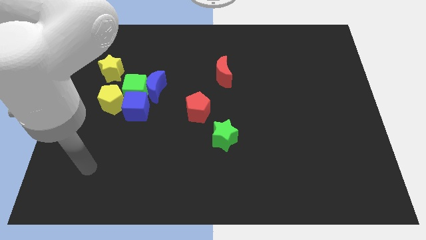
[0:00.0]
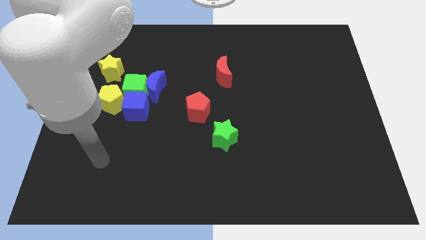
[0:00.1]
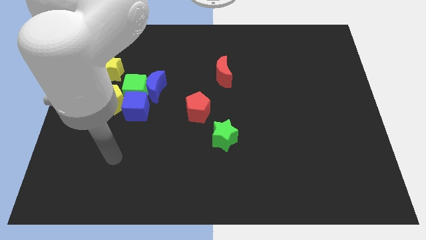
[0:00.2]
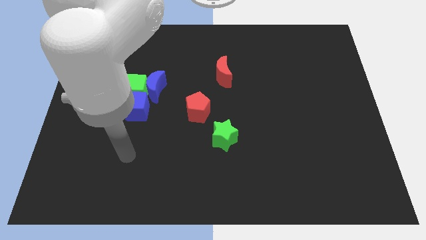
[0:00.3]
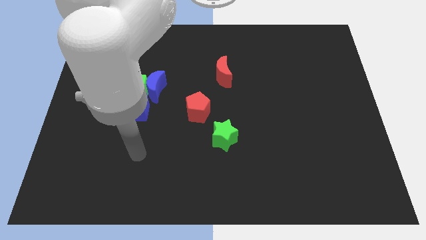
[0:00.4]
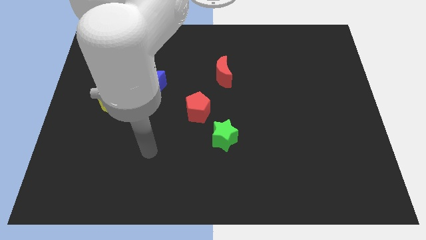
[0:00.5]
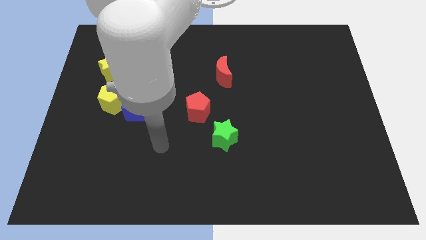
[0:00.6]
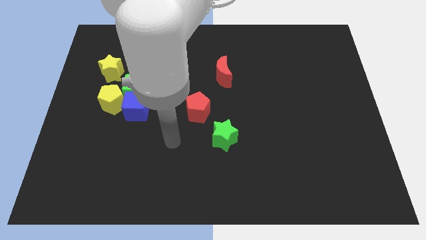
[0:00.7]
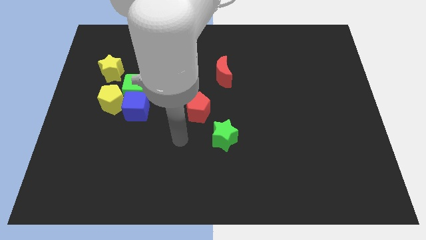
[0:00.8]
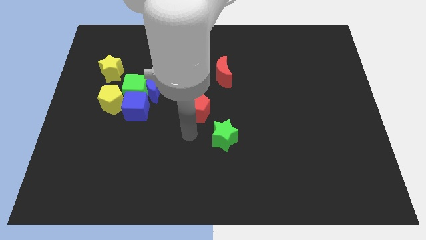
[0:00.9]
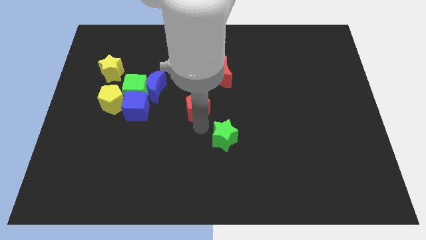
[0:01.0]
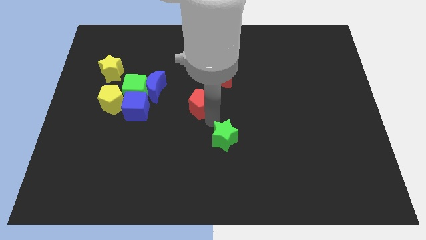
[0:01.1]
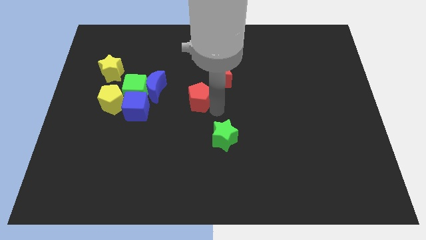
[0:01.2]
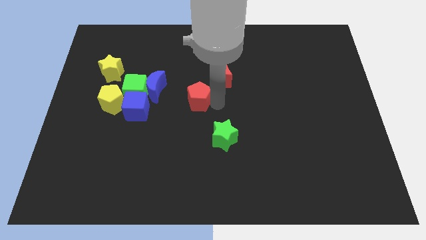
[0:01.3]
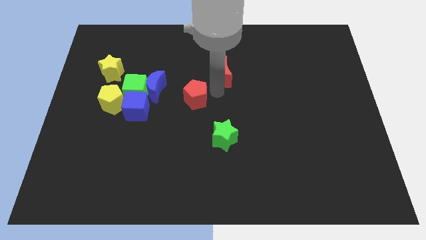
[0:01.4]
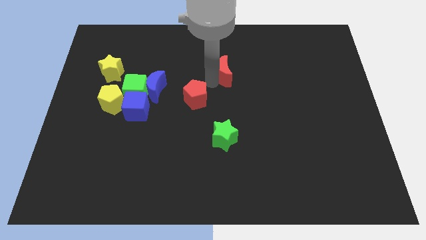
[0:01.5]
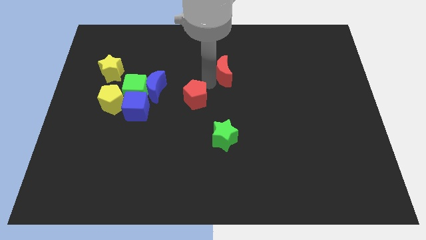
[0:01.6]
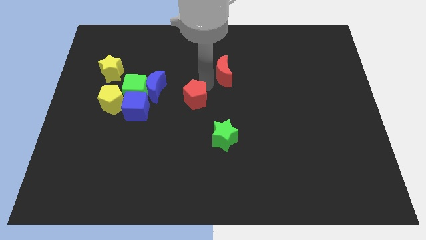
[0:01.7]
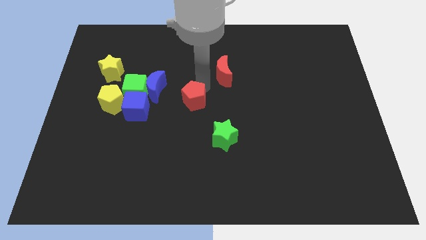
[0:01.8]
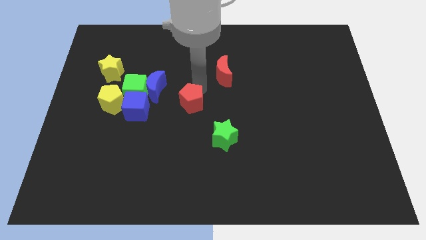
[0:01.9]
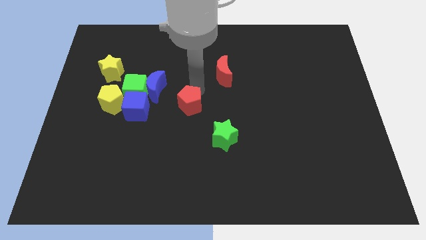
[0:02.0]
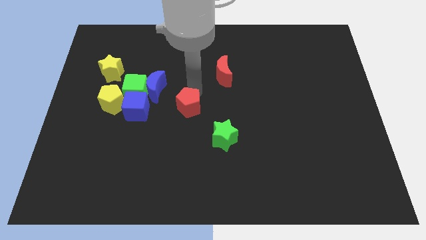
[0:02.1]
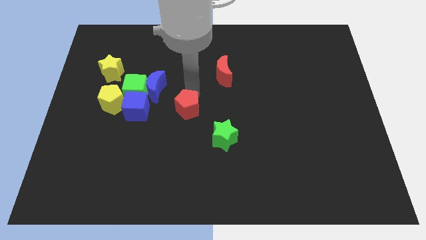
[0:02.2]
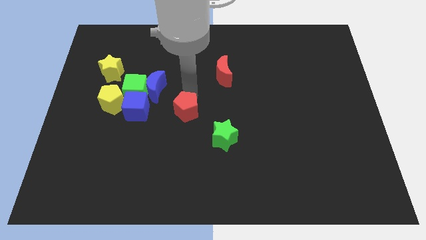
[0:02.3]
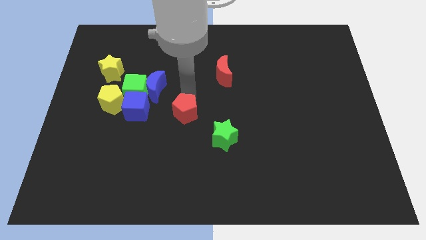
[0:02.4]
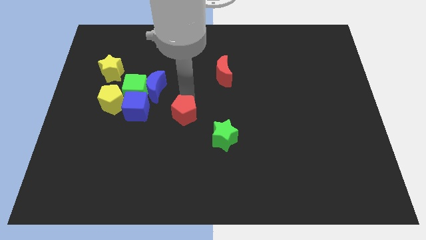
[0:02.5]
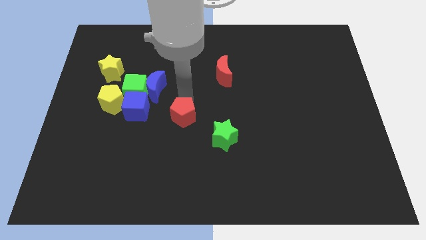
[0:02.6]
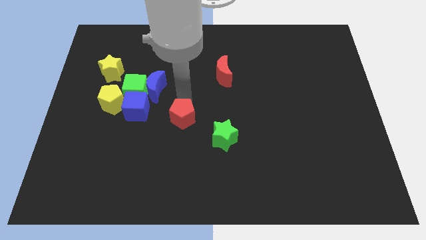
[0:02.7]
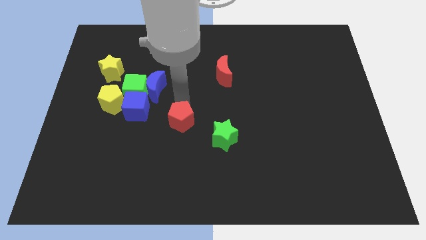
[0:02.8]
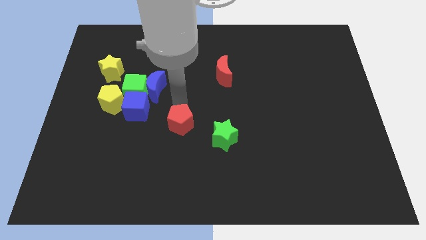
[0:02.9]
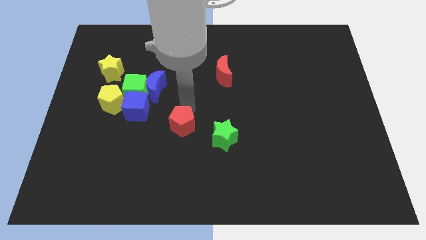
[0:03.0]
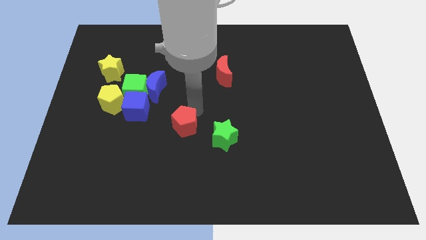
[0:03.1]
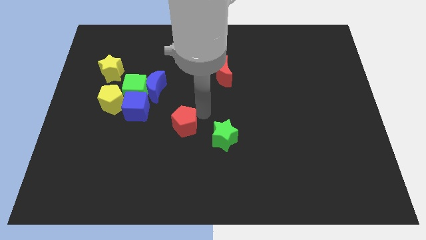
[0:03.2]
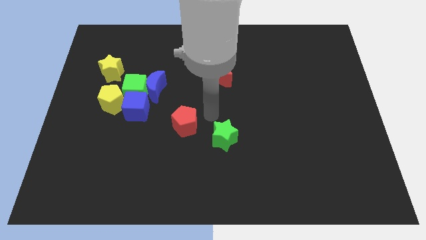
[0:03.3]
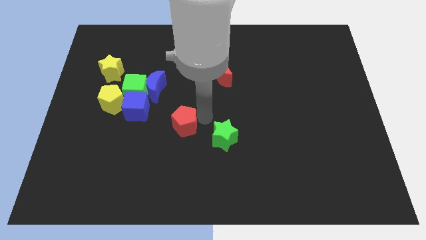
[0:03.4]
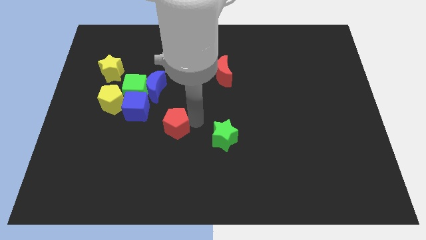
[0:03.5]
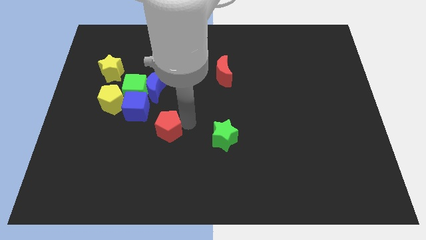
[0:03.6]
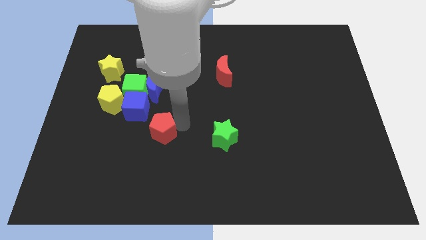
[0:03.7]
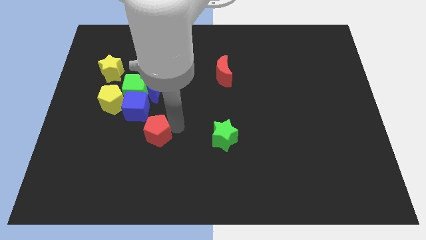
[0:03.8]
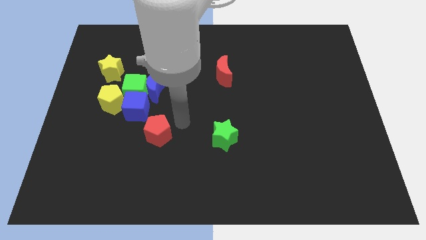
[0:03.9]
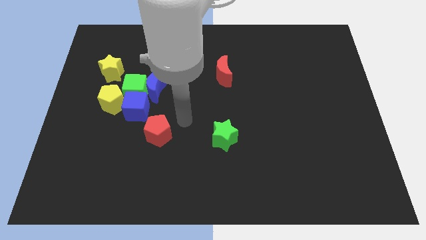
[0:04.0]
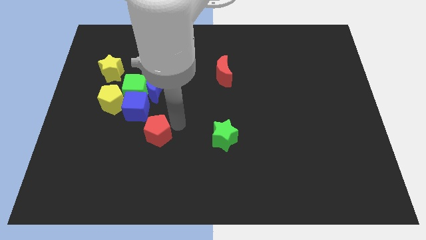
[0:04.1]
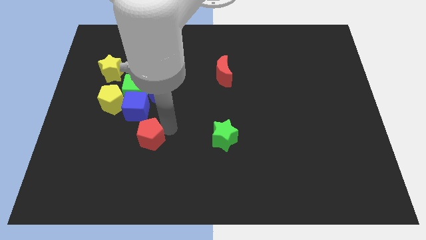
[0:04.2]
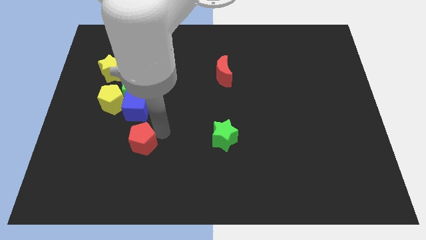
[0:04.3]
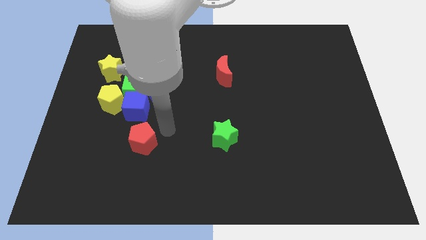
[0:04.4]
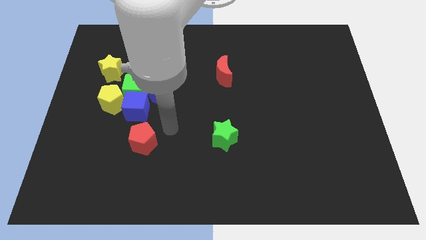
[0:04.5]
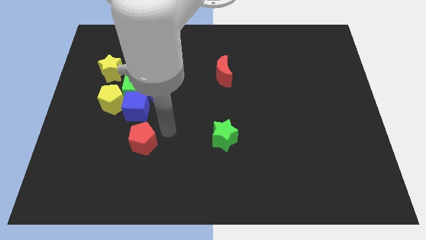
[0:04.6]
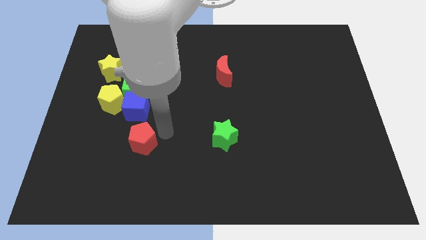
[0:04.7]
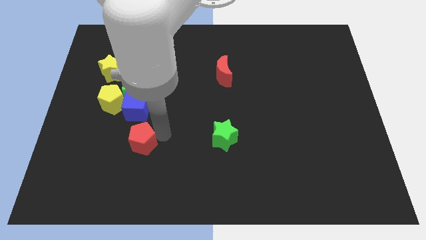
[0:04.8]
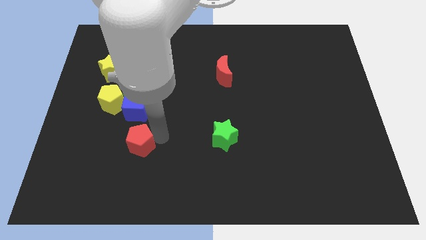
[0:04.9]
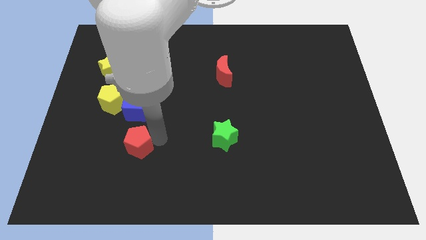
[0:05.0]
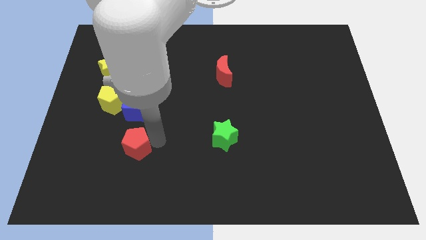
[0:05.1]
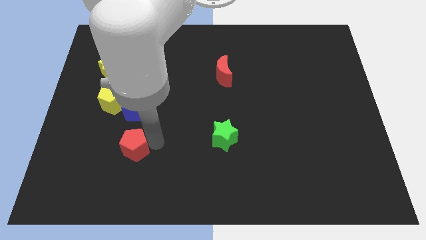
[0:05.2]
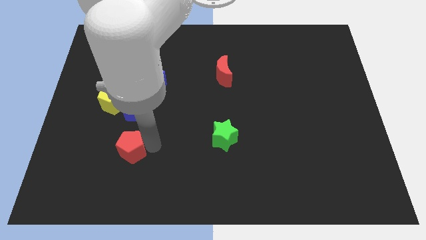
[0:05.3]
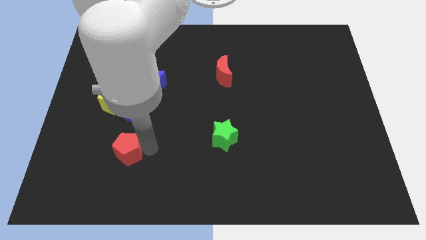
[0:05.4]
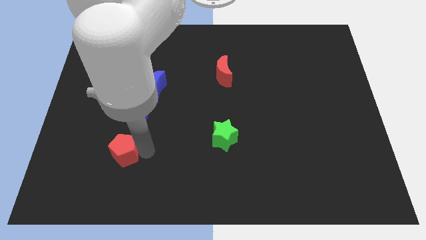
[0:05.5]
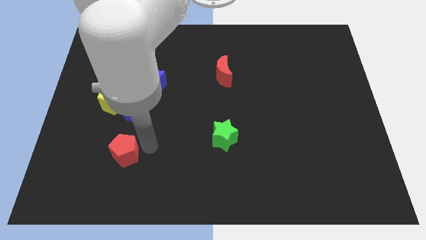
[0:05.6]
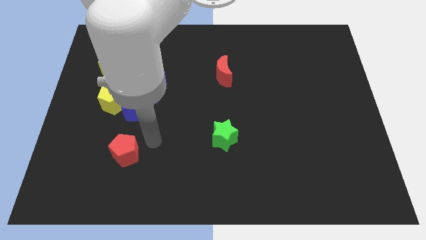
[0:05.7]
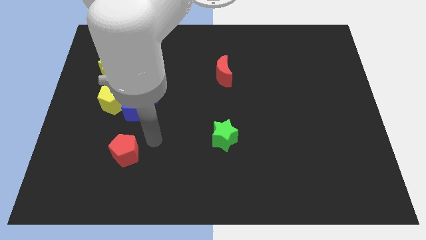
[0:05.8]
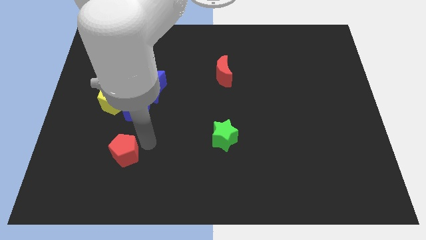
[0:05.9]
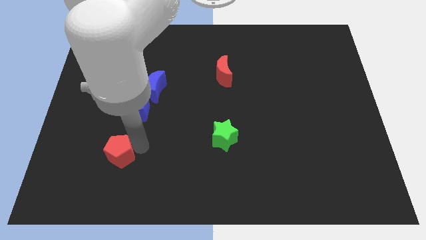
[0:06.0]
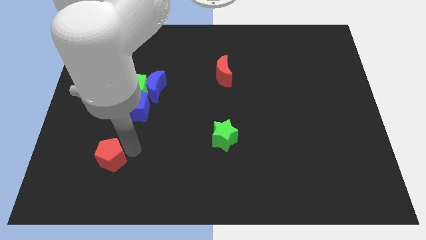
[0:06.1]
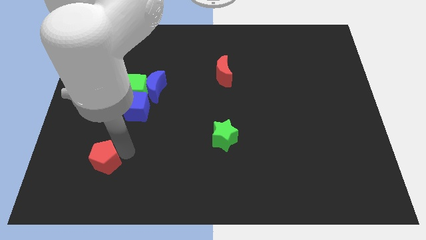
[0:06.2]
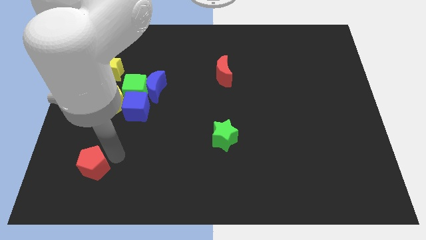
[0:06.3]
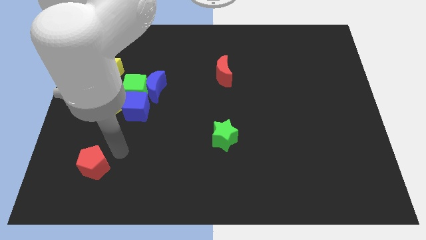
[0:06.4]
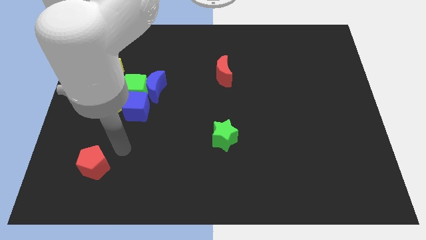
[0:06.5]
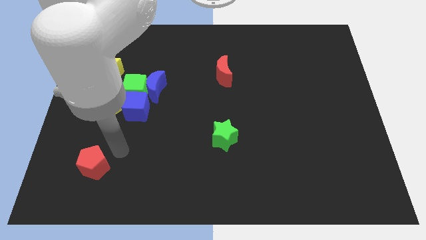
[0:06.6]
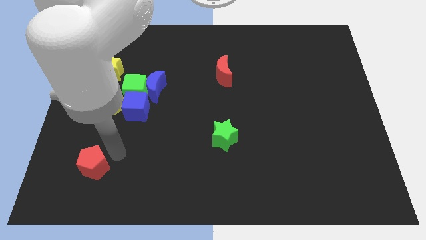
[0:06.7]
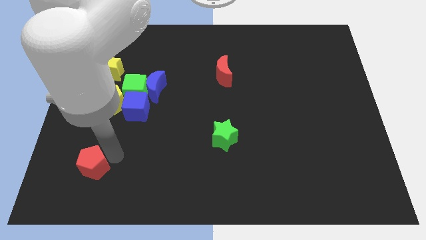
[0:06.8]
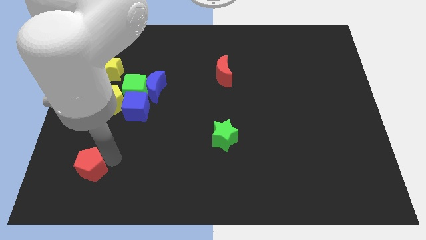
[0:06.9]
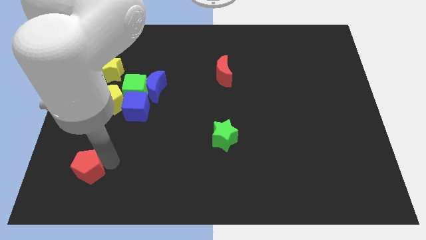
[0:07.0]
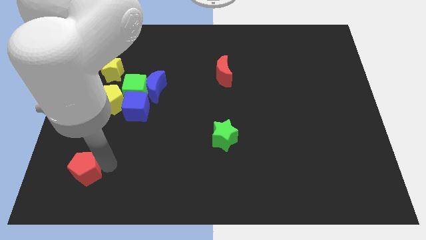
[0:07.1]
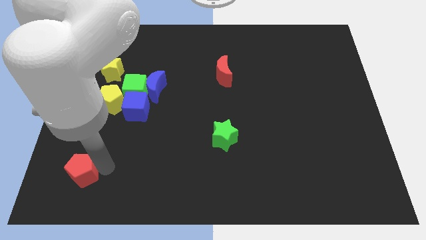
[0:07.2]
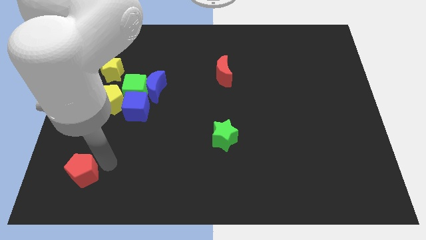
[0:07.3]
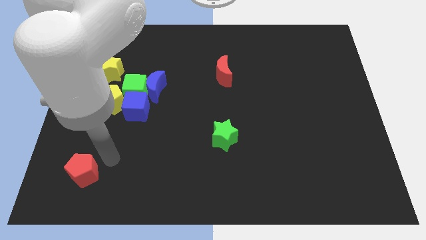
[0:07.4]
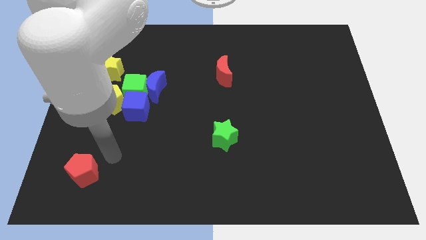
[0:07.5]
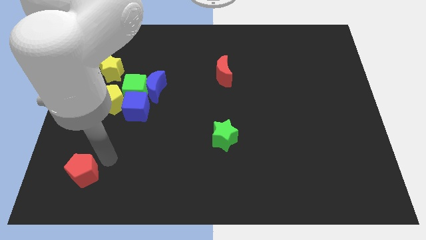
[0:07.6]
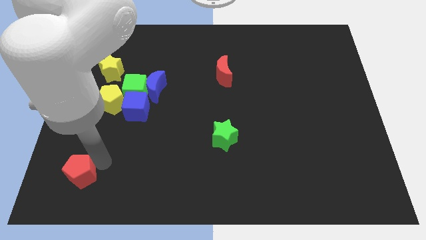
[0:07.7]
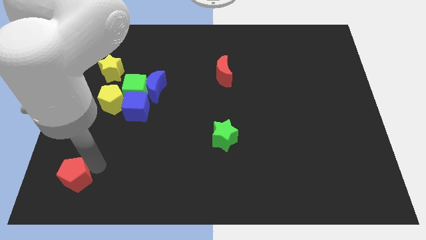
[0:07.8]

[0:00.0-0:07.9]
put the red pentagon to the bottom left of the board
